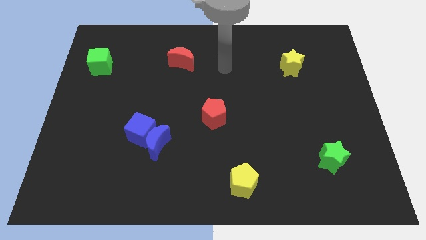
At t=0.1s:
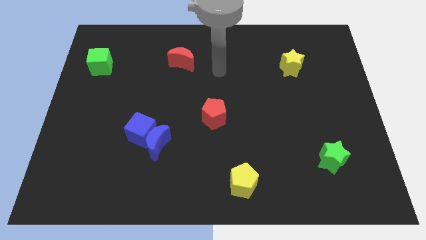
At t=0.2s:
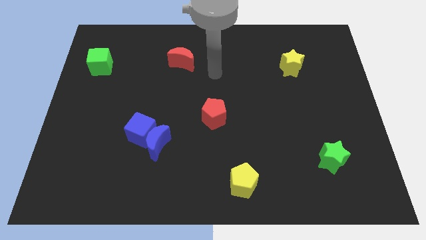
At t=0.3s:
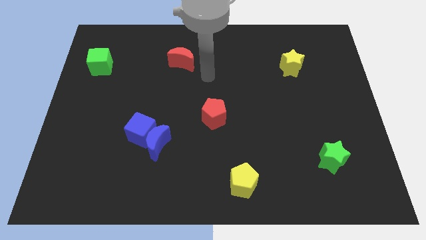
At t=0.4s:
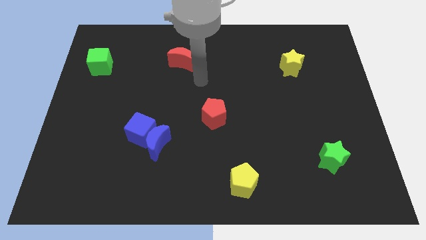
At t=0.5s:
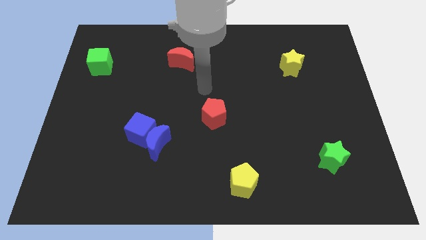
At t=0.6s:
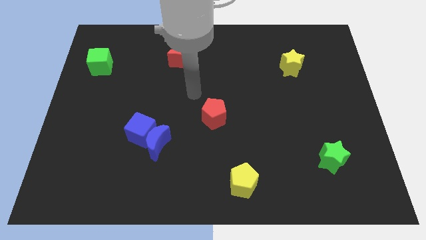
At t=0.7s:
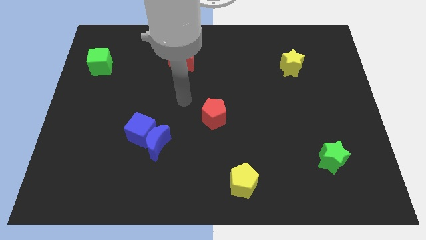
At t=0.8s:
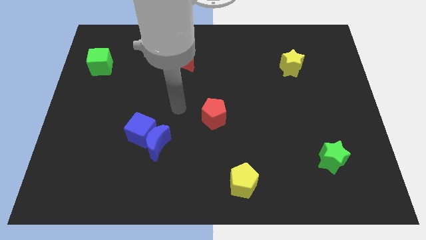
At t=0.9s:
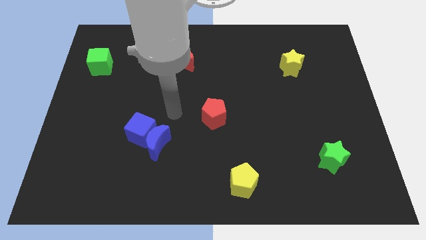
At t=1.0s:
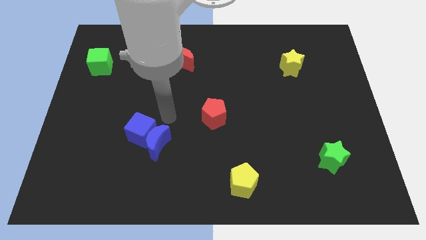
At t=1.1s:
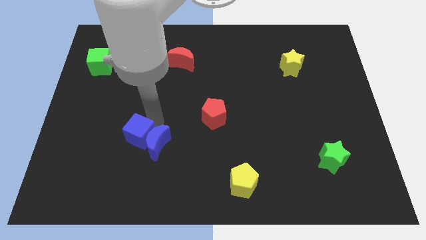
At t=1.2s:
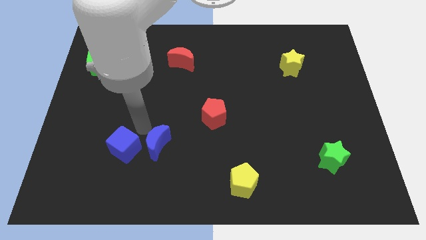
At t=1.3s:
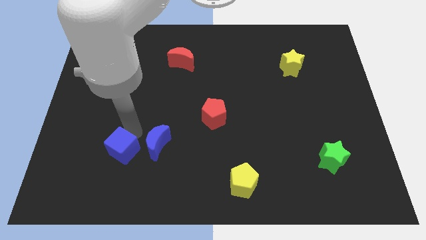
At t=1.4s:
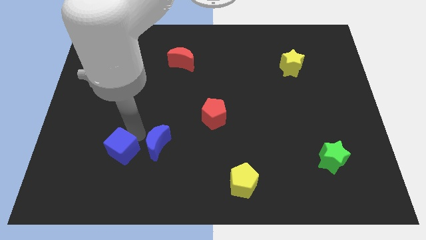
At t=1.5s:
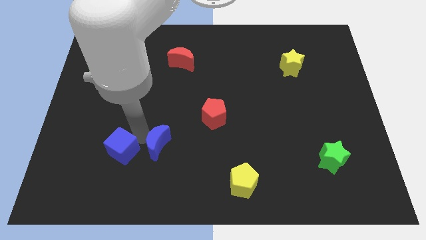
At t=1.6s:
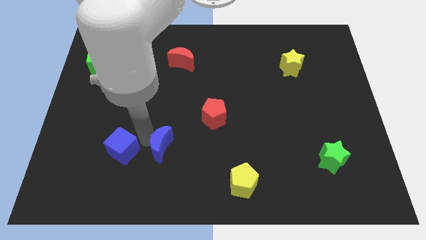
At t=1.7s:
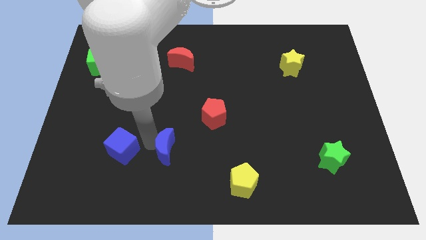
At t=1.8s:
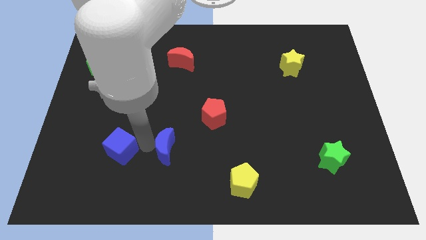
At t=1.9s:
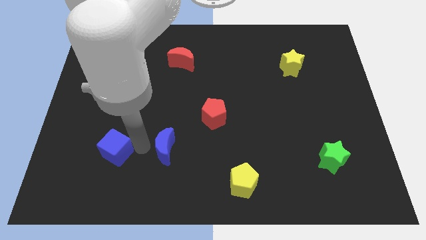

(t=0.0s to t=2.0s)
move the blue moon away from the blue cube

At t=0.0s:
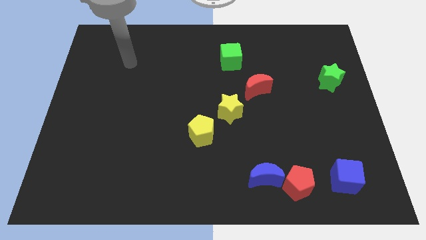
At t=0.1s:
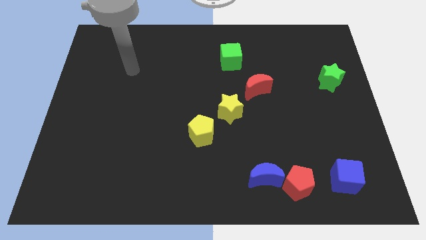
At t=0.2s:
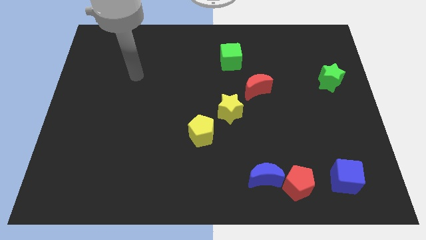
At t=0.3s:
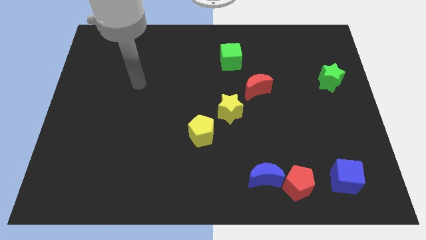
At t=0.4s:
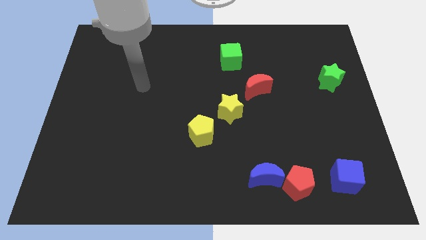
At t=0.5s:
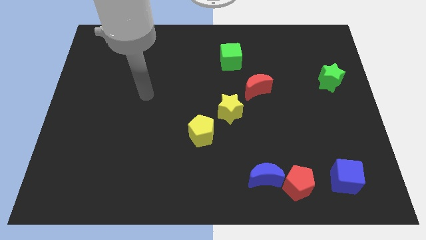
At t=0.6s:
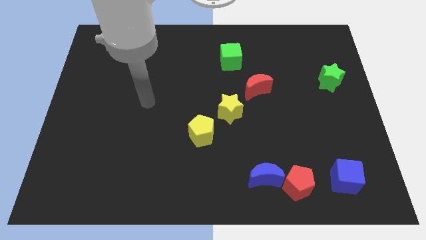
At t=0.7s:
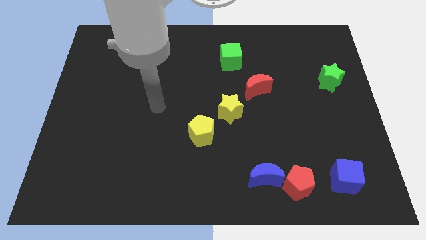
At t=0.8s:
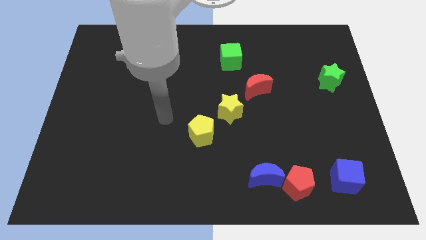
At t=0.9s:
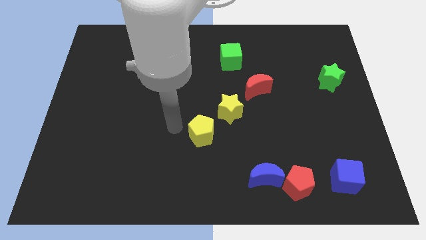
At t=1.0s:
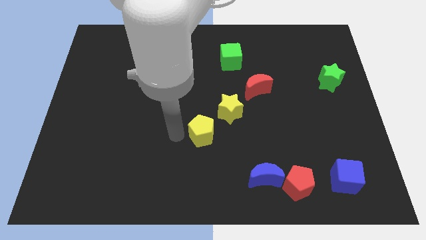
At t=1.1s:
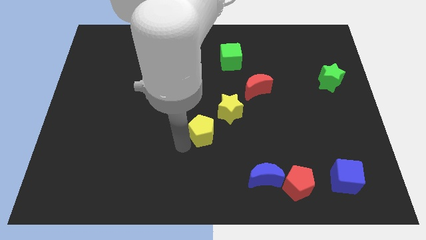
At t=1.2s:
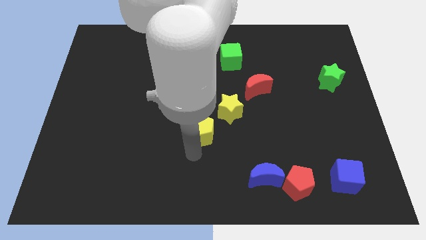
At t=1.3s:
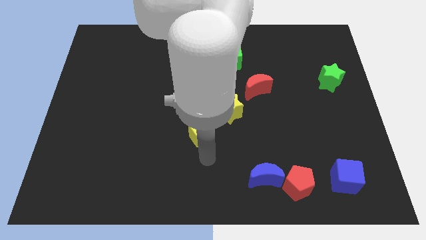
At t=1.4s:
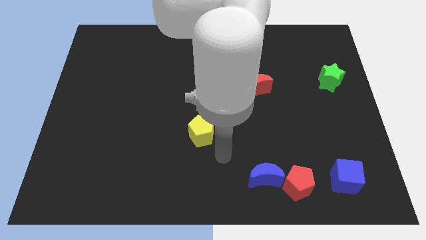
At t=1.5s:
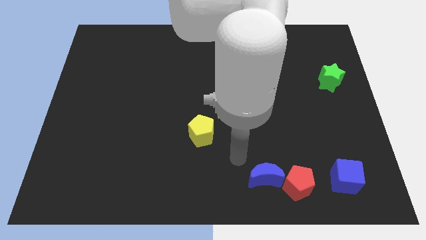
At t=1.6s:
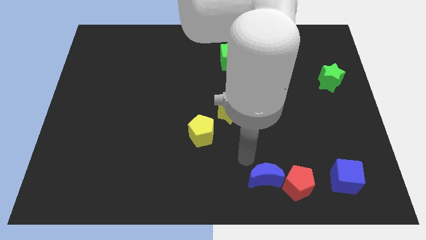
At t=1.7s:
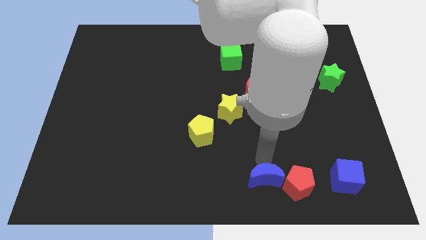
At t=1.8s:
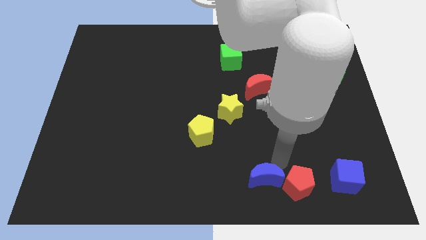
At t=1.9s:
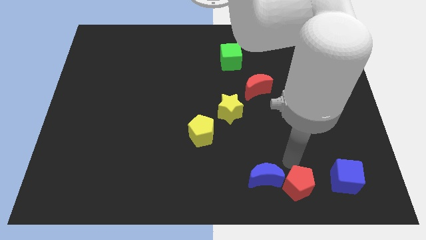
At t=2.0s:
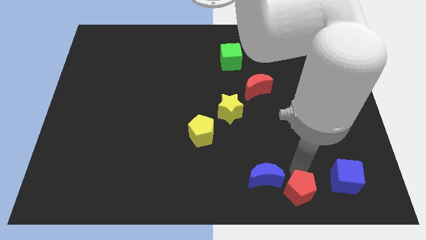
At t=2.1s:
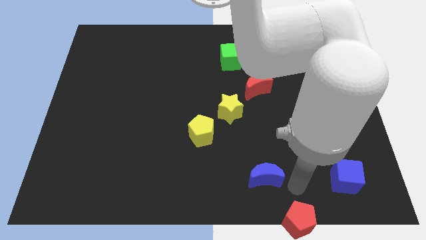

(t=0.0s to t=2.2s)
pull the blue moon apart from the red pentagon

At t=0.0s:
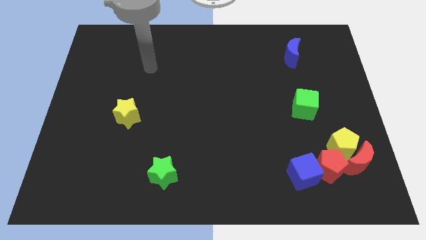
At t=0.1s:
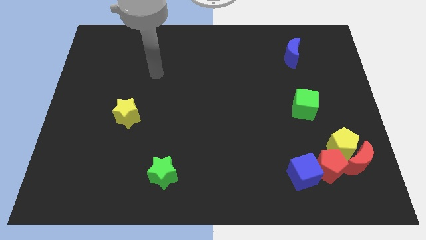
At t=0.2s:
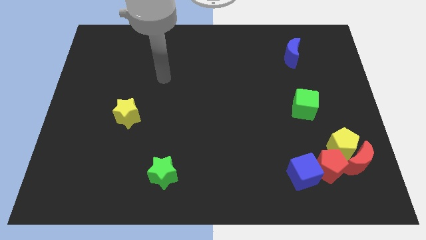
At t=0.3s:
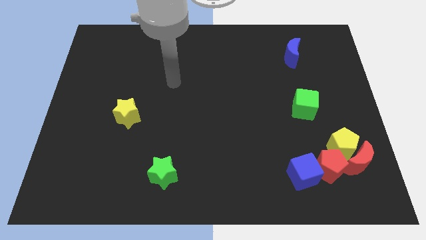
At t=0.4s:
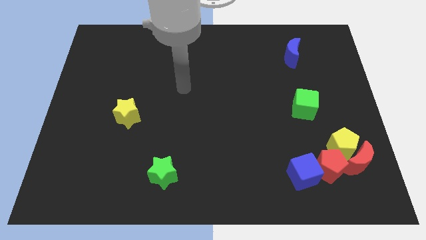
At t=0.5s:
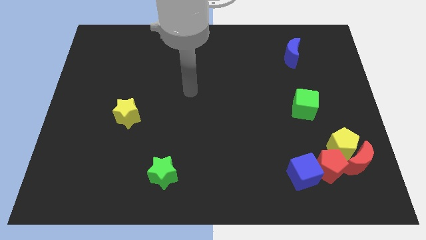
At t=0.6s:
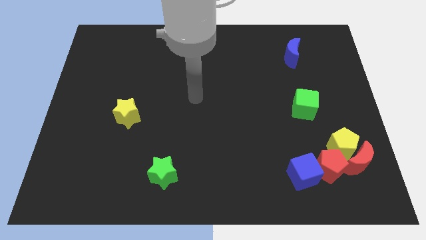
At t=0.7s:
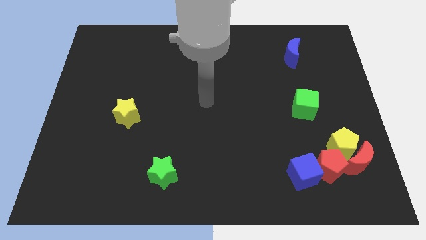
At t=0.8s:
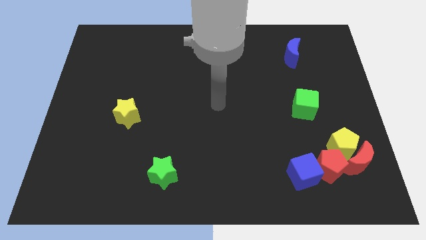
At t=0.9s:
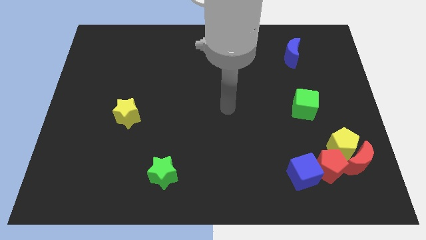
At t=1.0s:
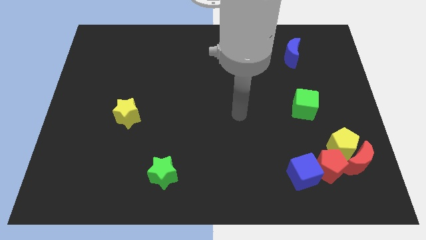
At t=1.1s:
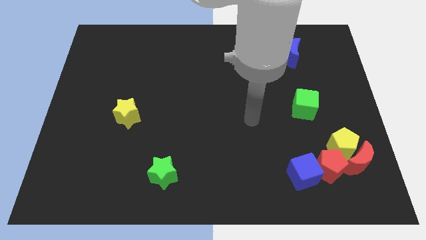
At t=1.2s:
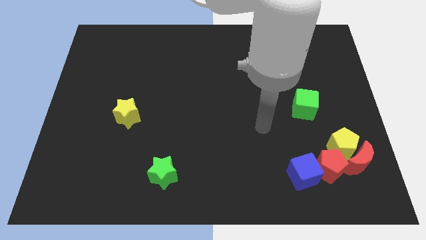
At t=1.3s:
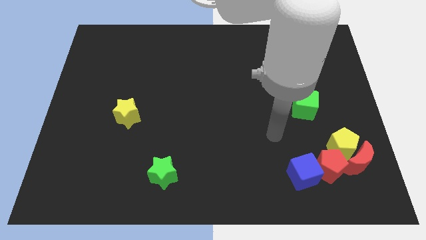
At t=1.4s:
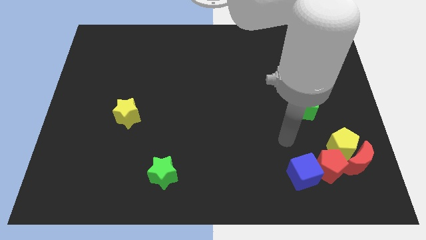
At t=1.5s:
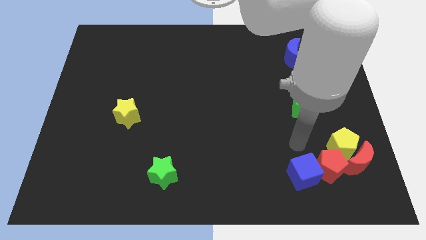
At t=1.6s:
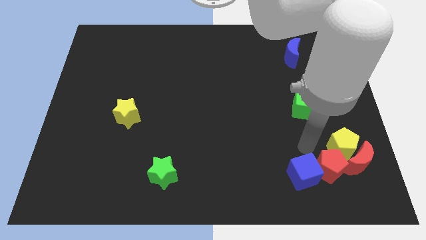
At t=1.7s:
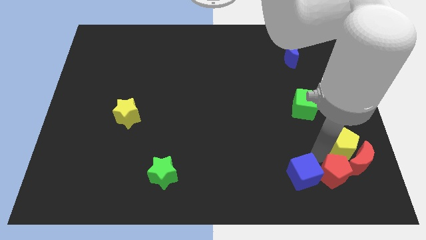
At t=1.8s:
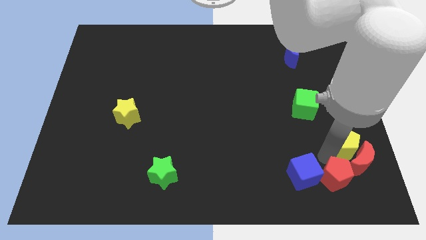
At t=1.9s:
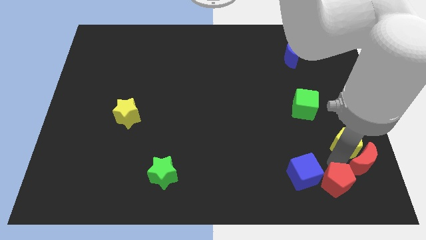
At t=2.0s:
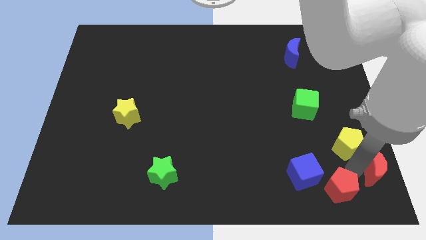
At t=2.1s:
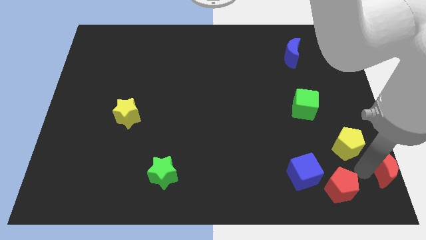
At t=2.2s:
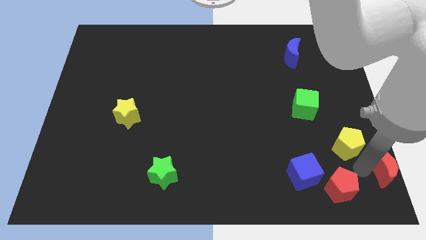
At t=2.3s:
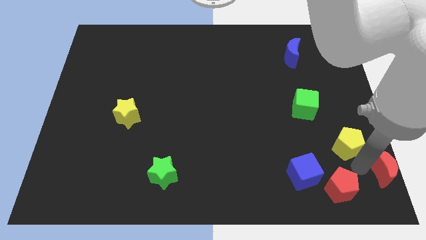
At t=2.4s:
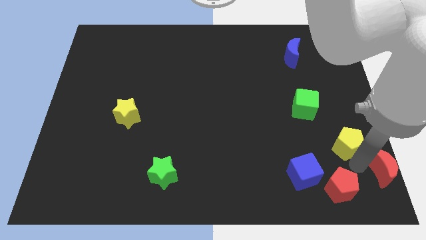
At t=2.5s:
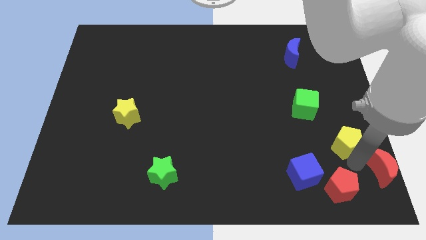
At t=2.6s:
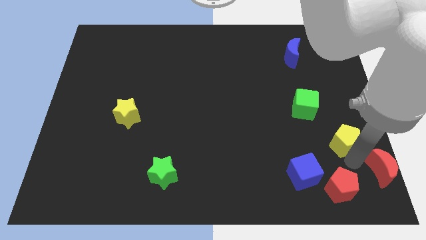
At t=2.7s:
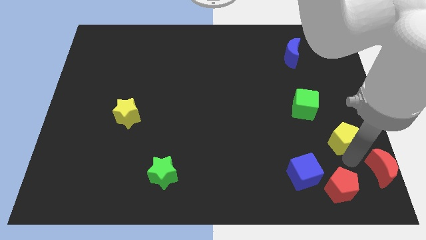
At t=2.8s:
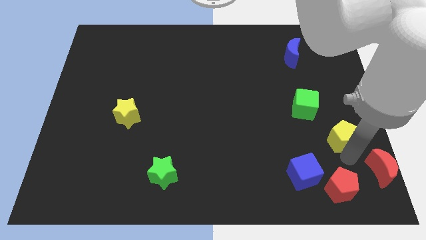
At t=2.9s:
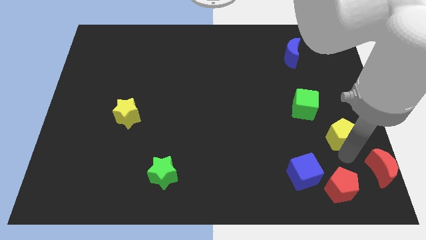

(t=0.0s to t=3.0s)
pull the yellow pentagon apart from the red moon and red pentagon

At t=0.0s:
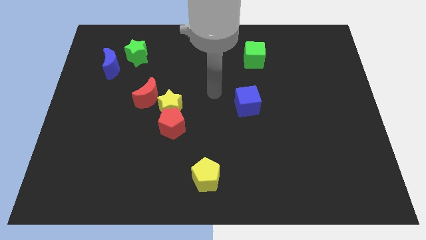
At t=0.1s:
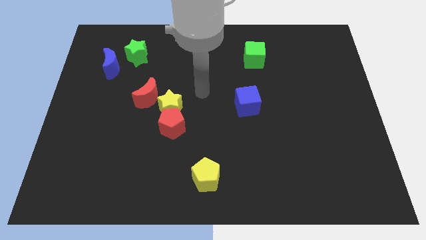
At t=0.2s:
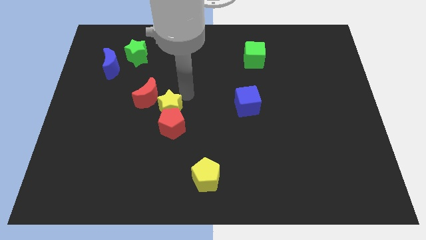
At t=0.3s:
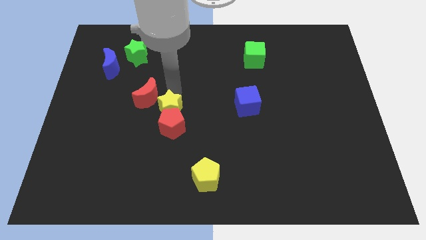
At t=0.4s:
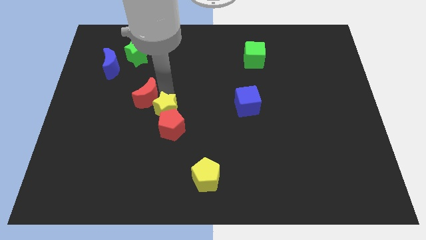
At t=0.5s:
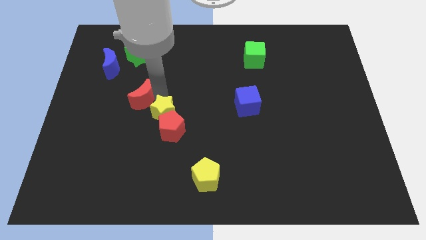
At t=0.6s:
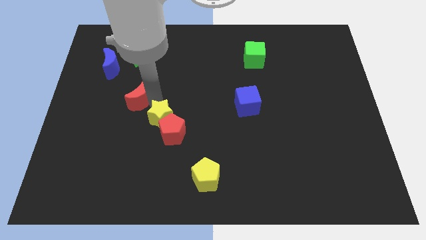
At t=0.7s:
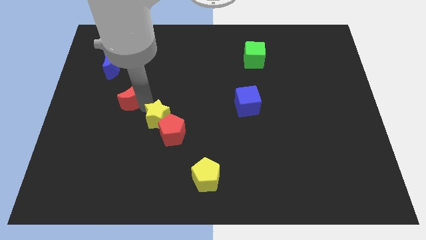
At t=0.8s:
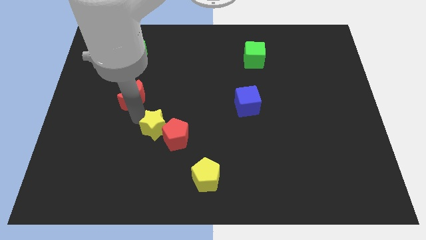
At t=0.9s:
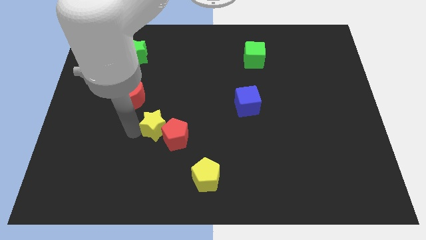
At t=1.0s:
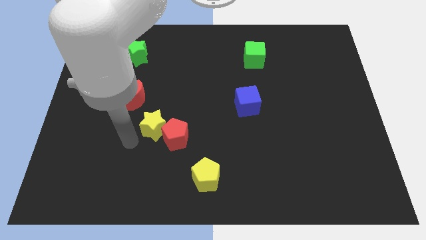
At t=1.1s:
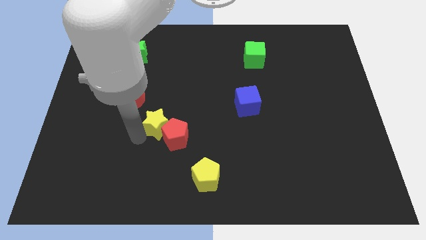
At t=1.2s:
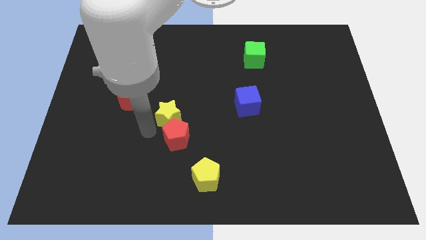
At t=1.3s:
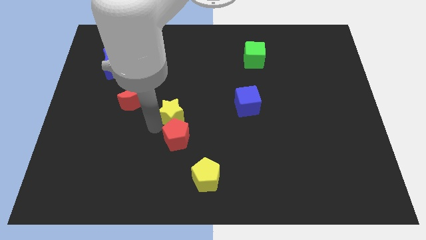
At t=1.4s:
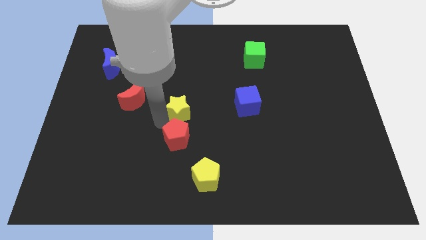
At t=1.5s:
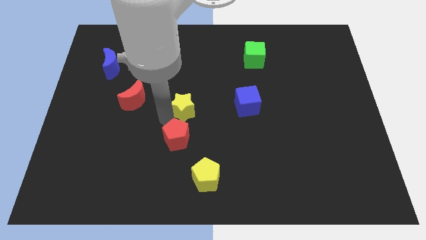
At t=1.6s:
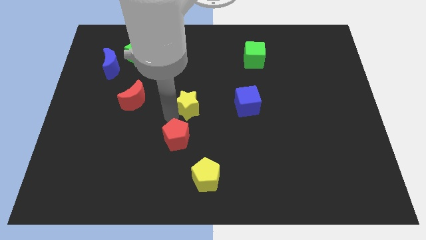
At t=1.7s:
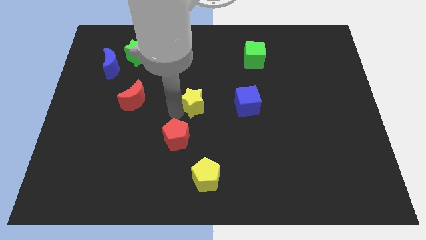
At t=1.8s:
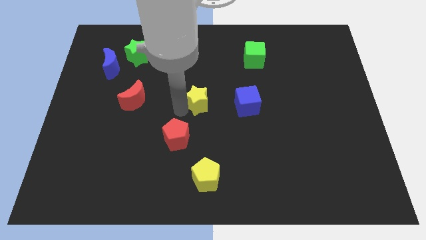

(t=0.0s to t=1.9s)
separate the yellow star from the red pentagon and red moon

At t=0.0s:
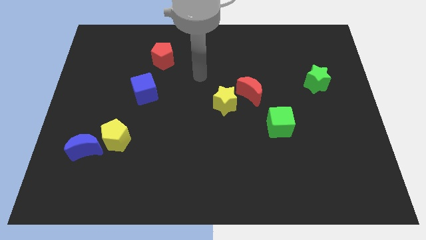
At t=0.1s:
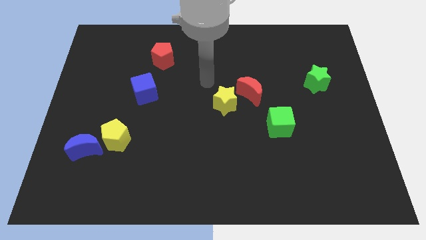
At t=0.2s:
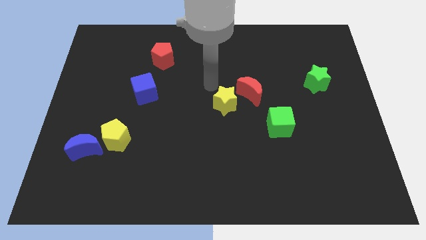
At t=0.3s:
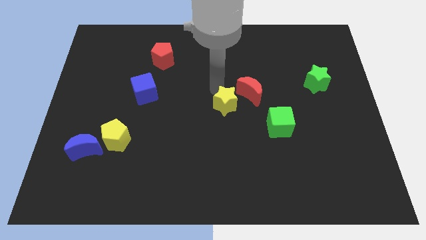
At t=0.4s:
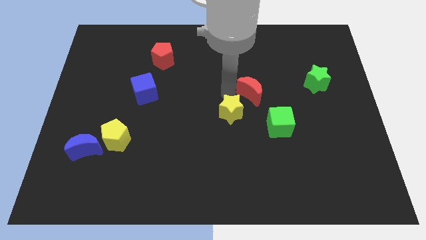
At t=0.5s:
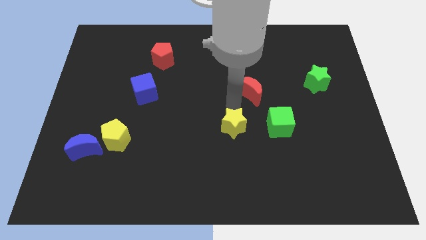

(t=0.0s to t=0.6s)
pull the red moon apart from the yellow star
